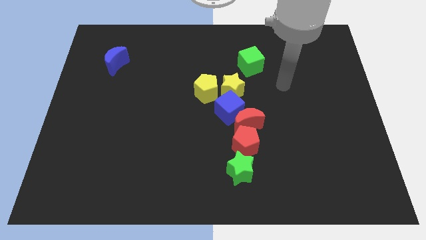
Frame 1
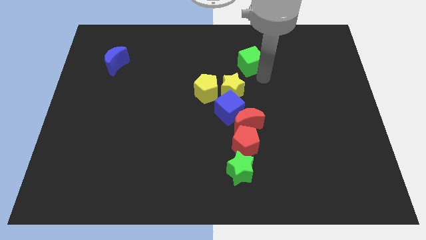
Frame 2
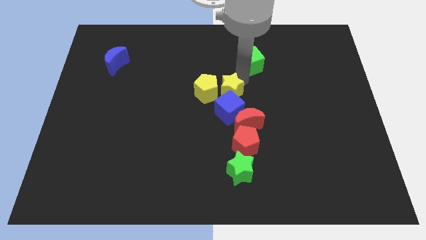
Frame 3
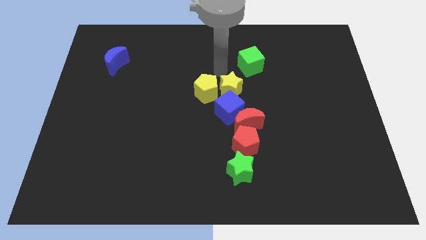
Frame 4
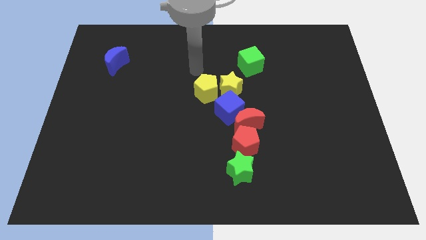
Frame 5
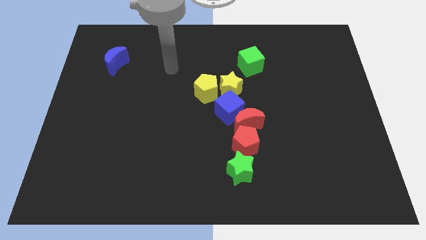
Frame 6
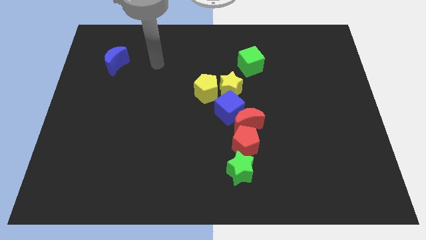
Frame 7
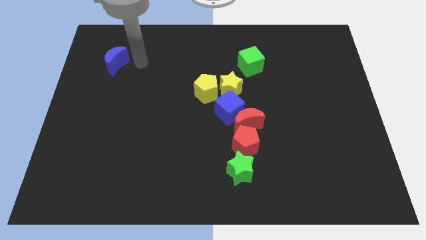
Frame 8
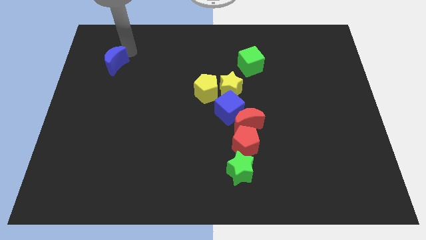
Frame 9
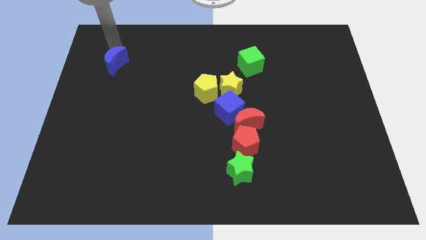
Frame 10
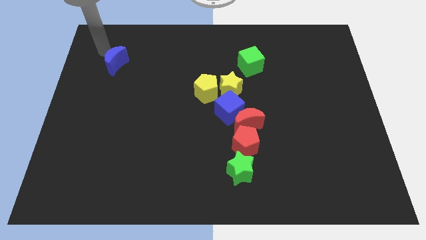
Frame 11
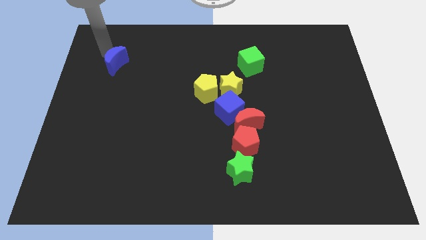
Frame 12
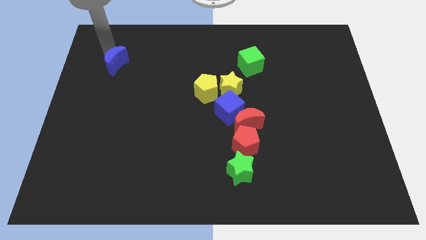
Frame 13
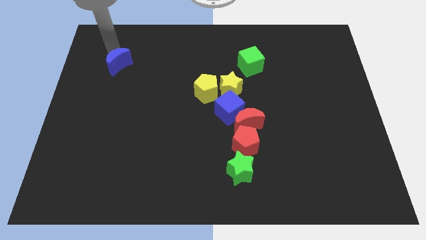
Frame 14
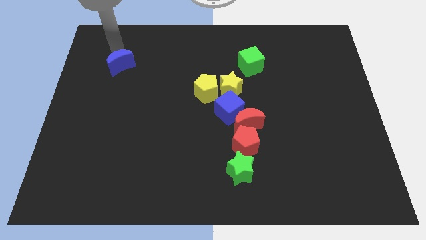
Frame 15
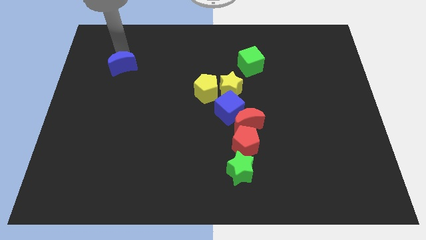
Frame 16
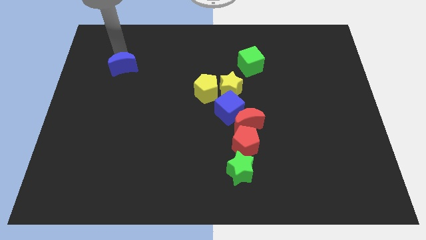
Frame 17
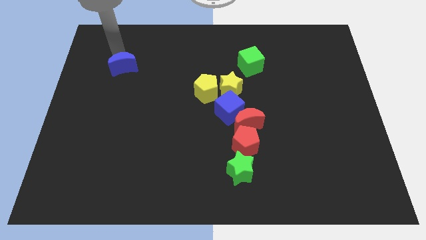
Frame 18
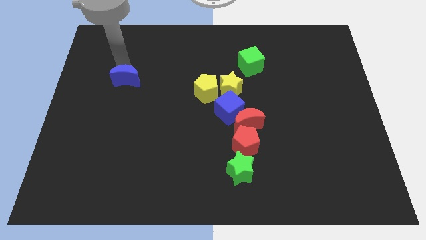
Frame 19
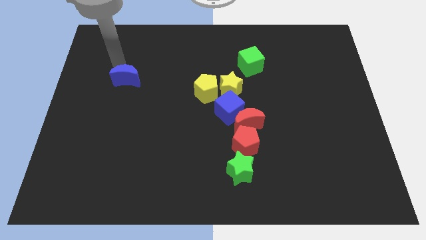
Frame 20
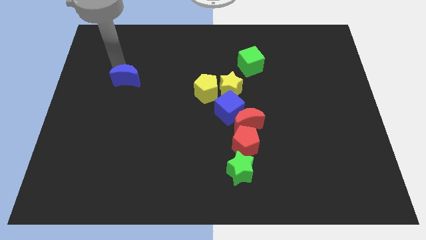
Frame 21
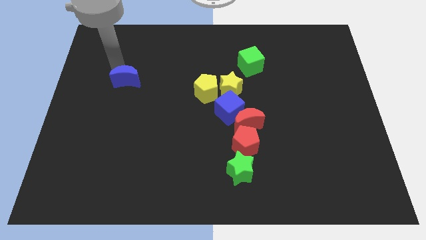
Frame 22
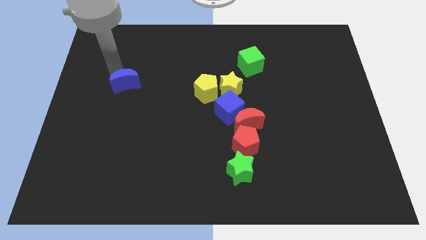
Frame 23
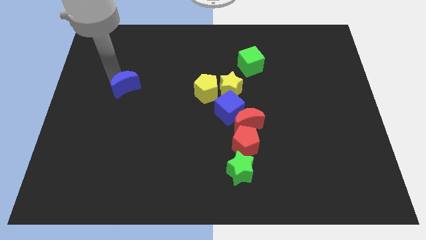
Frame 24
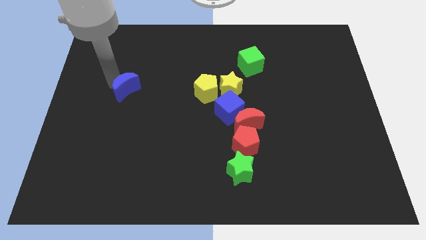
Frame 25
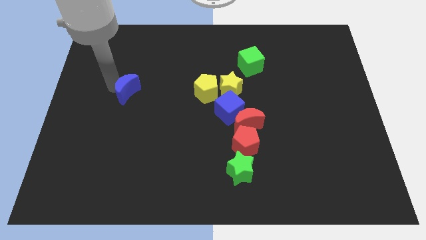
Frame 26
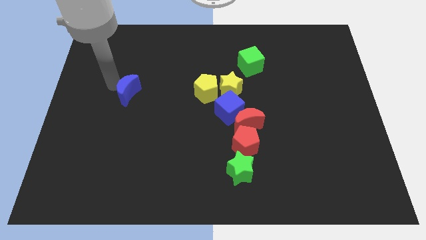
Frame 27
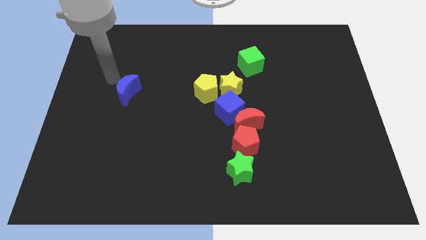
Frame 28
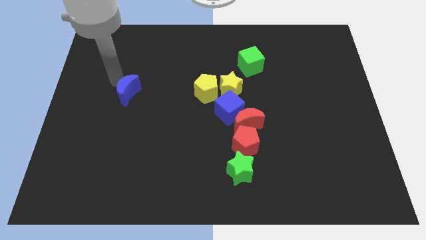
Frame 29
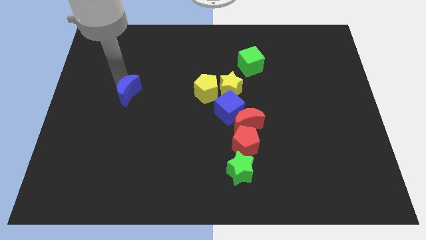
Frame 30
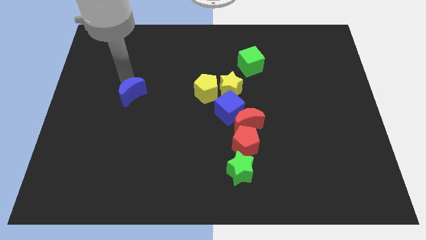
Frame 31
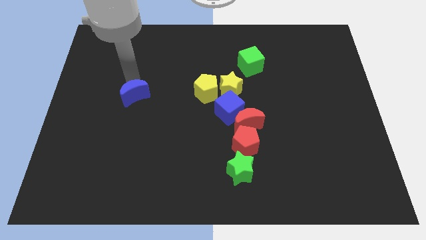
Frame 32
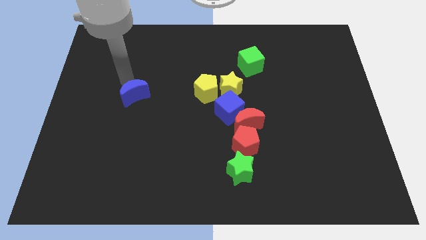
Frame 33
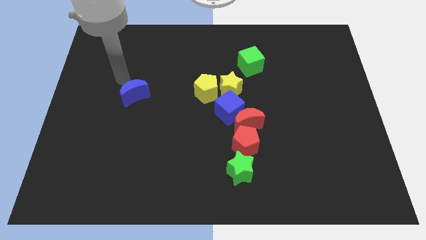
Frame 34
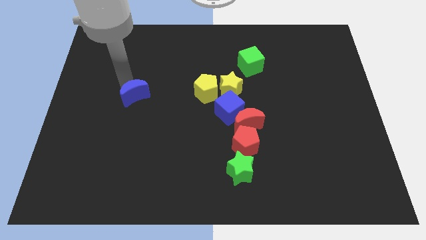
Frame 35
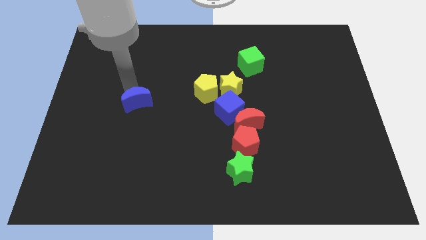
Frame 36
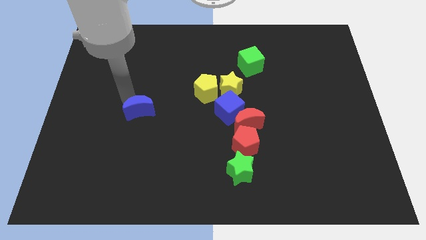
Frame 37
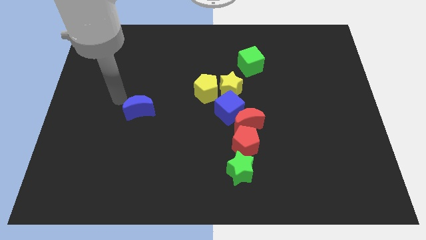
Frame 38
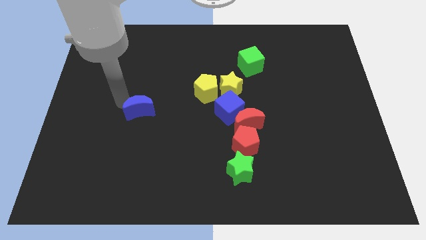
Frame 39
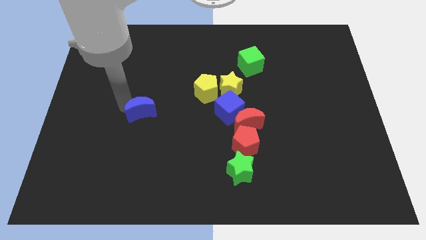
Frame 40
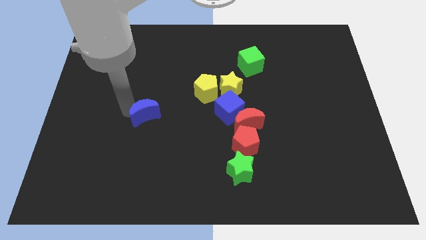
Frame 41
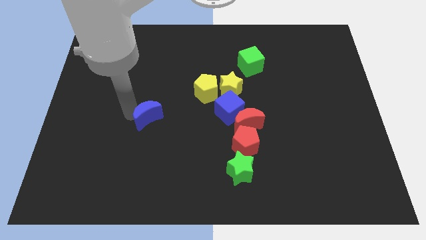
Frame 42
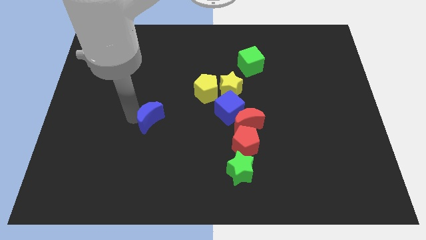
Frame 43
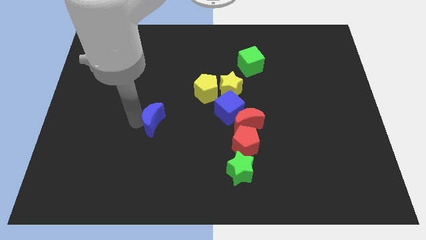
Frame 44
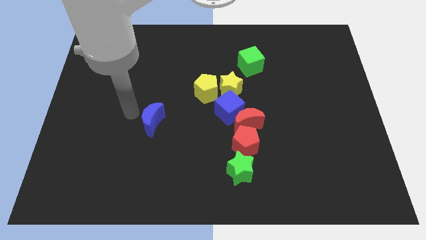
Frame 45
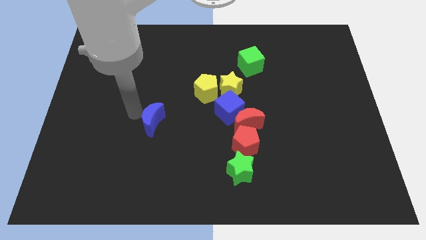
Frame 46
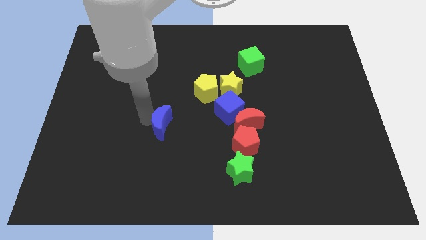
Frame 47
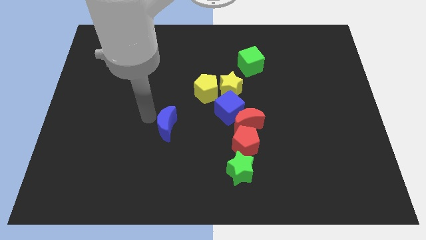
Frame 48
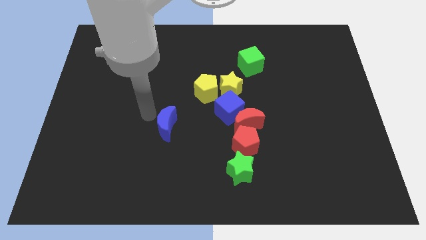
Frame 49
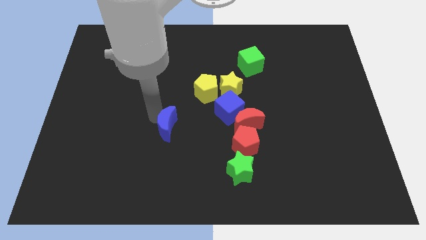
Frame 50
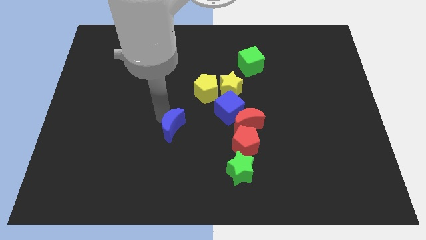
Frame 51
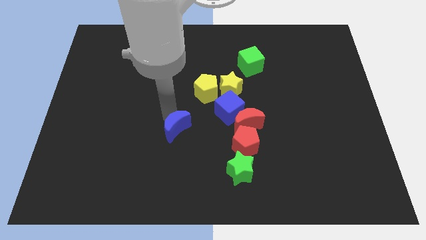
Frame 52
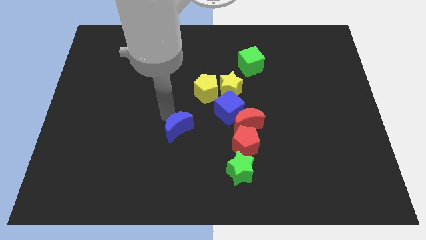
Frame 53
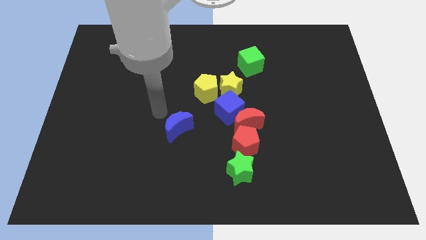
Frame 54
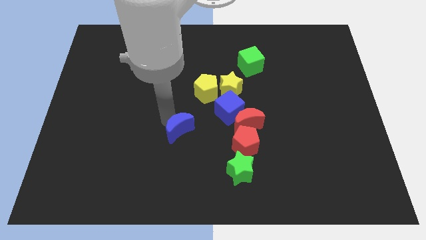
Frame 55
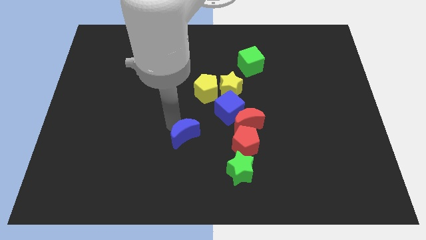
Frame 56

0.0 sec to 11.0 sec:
slide the blue moon left of the red pentagon

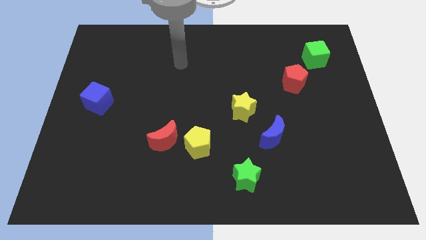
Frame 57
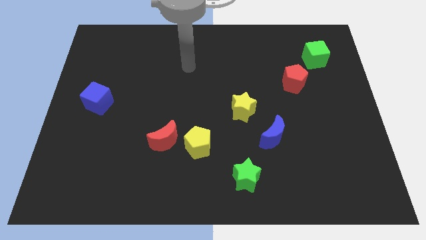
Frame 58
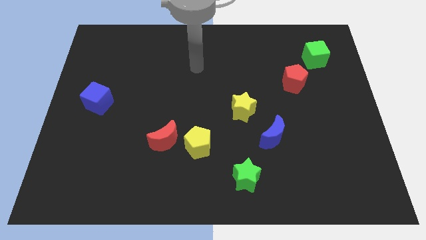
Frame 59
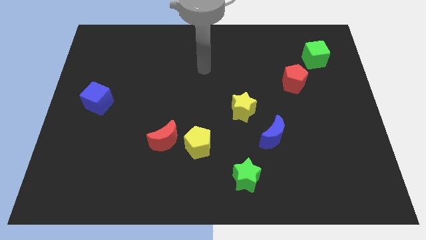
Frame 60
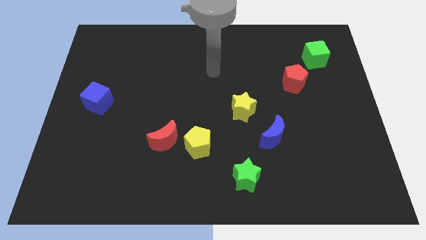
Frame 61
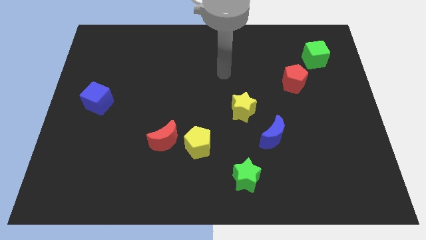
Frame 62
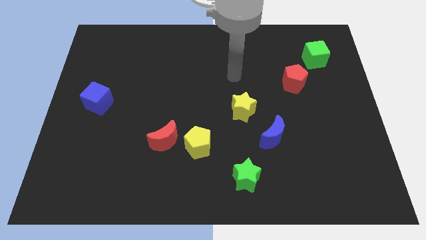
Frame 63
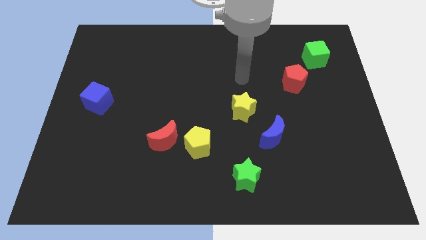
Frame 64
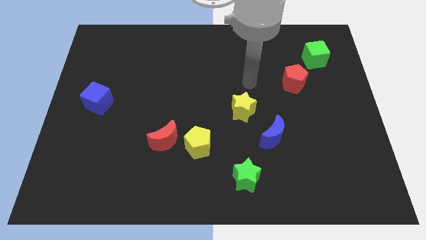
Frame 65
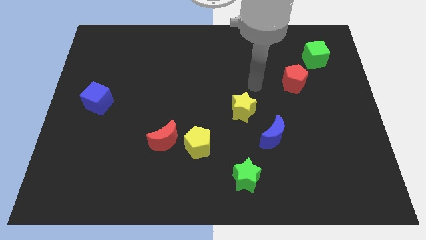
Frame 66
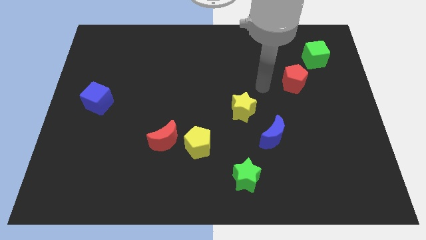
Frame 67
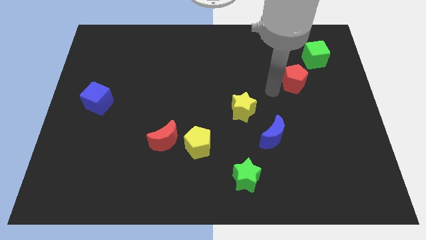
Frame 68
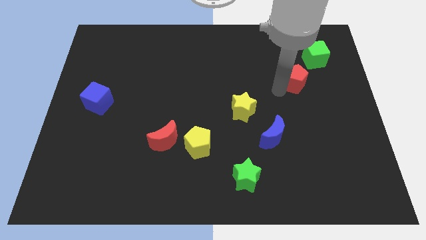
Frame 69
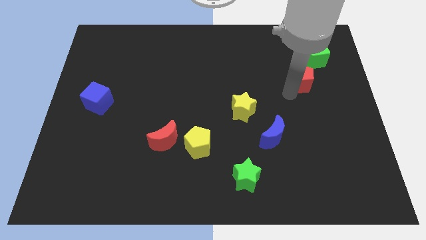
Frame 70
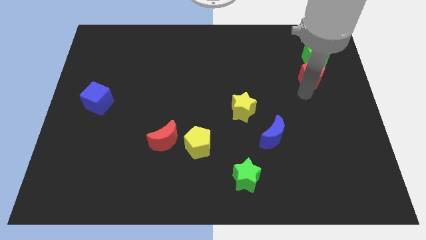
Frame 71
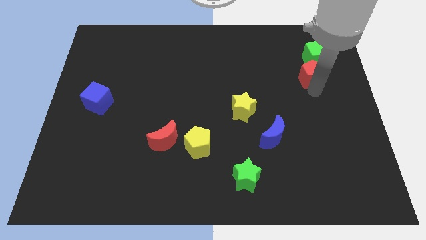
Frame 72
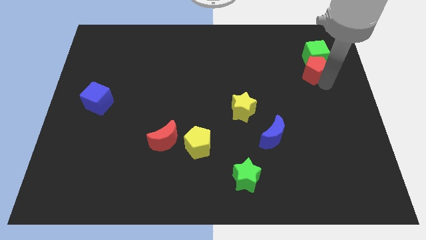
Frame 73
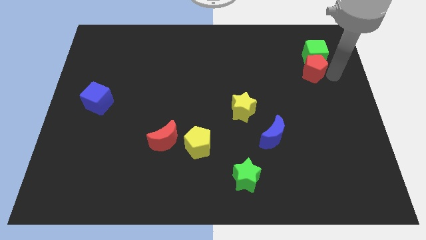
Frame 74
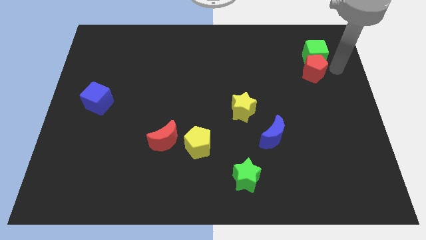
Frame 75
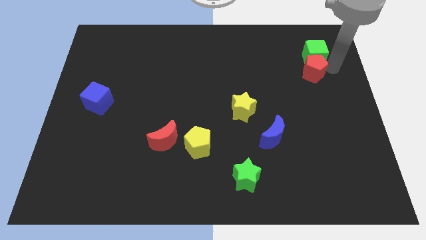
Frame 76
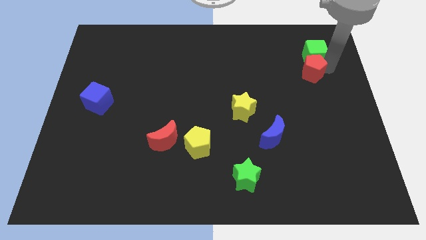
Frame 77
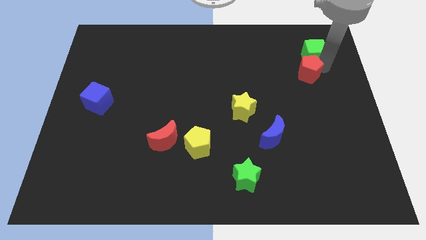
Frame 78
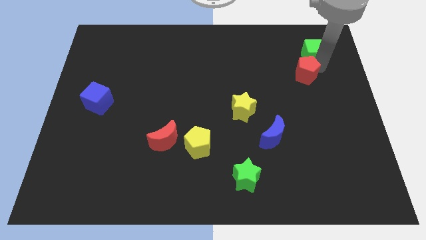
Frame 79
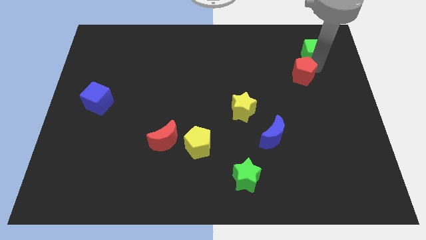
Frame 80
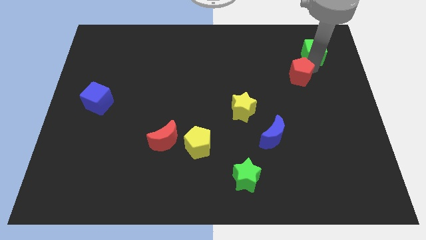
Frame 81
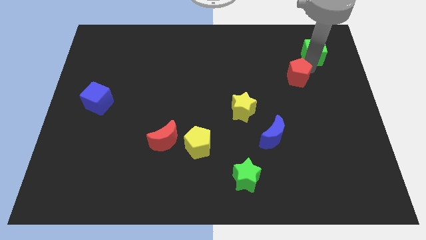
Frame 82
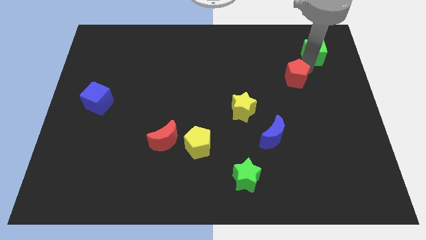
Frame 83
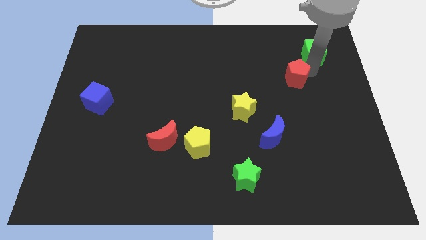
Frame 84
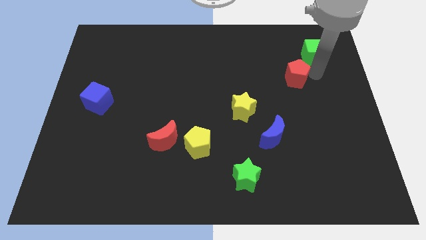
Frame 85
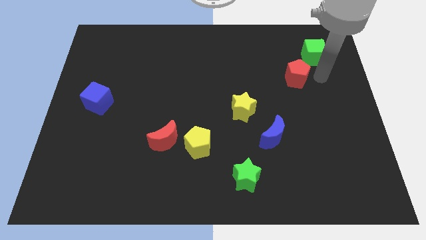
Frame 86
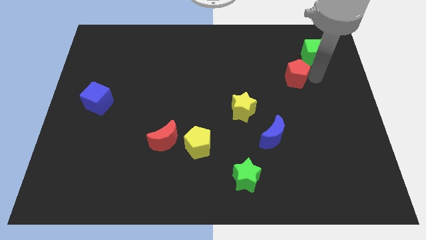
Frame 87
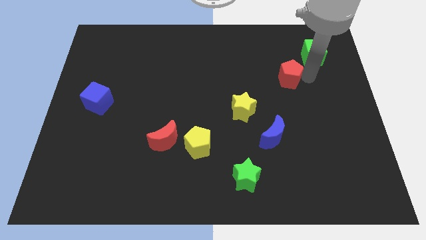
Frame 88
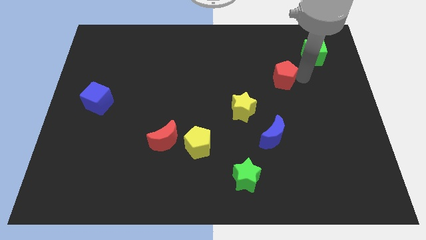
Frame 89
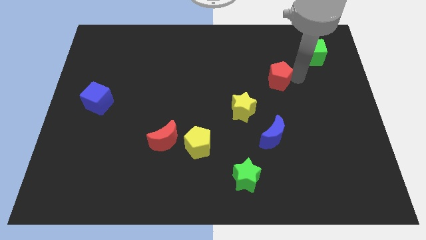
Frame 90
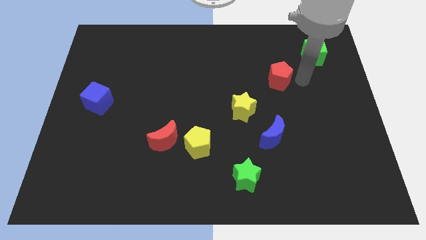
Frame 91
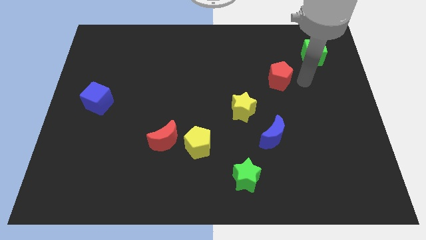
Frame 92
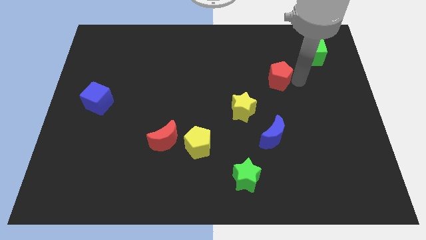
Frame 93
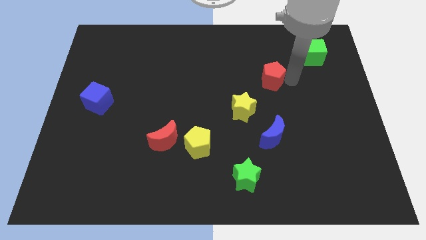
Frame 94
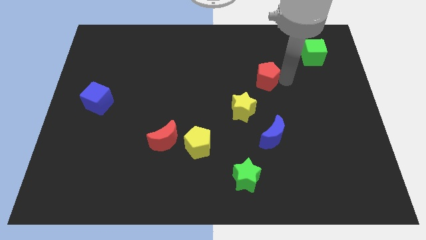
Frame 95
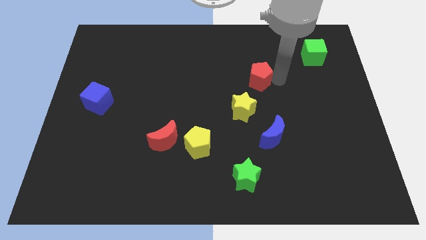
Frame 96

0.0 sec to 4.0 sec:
slide the red pentagon to the top of the yellow star
